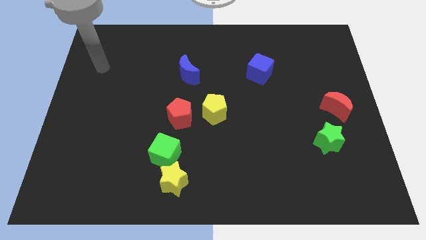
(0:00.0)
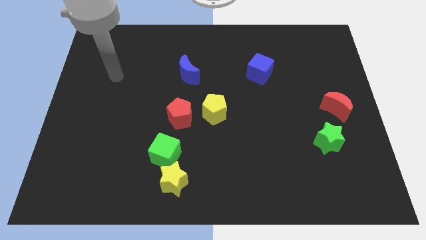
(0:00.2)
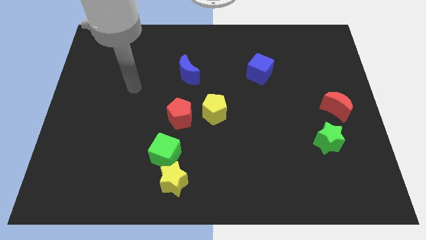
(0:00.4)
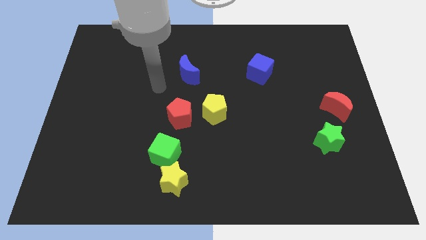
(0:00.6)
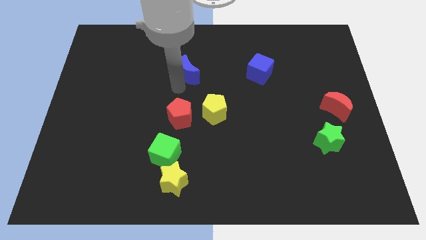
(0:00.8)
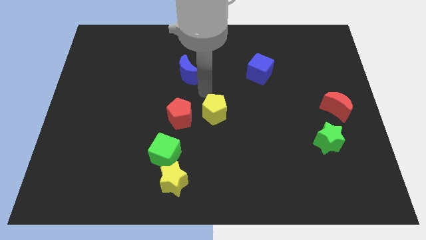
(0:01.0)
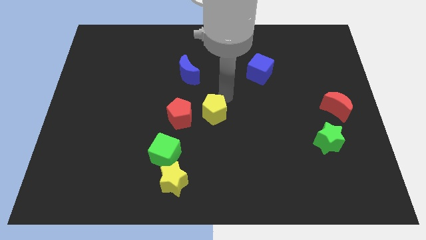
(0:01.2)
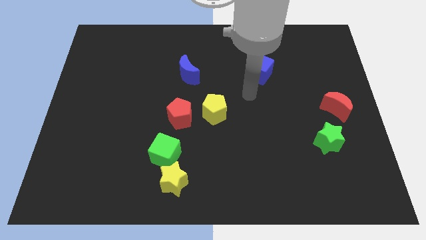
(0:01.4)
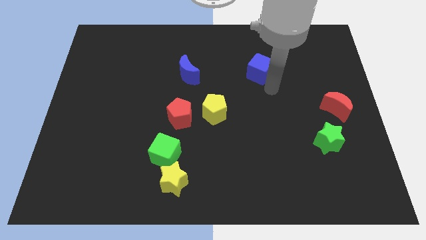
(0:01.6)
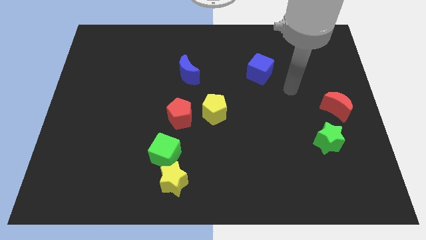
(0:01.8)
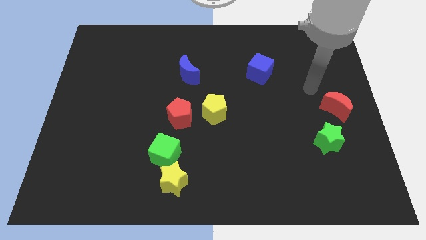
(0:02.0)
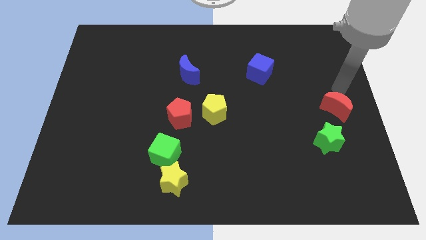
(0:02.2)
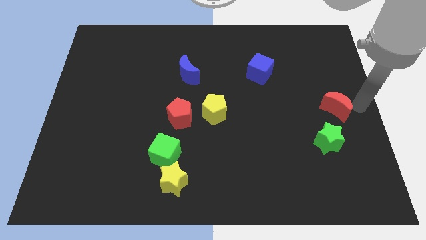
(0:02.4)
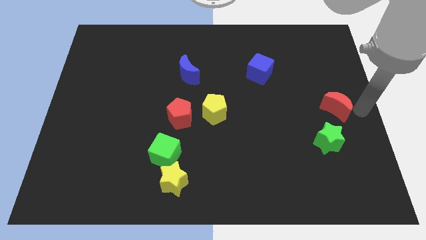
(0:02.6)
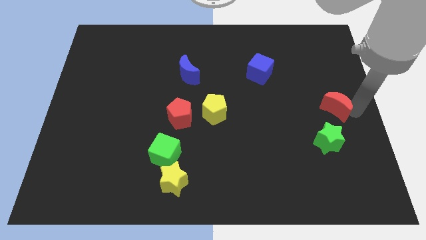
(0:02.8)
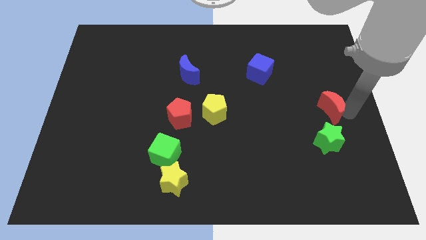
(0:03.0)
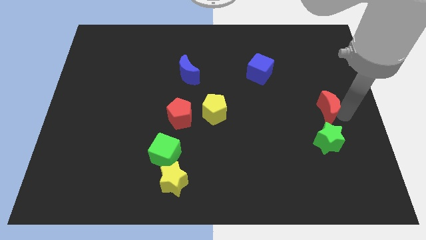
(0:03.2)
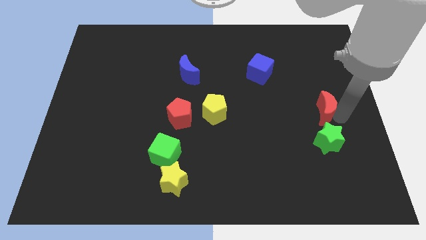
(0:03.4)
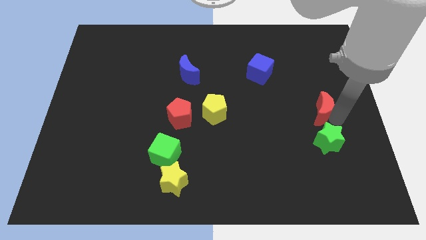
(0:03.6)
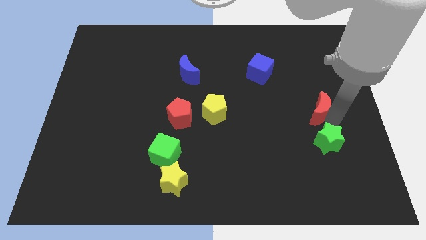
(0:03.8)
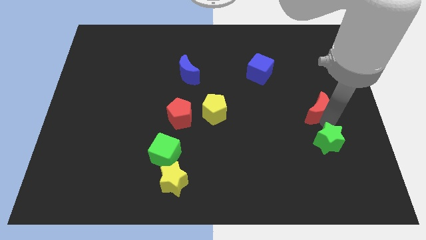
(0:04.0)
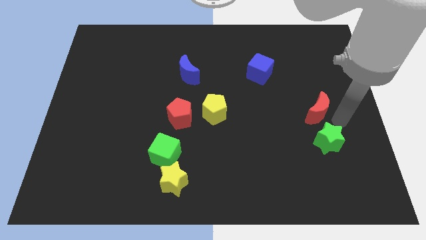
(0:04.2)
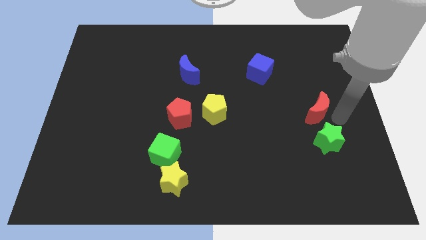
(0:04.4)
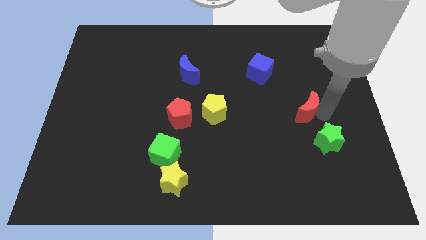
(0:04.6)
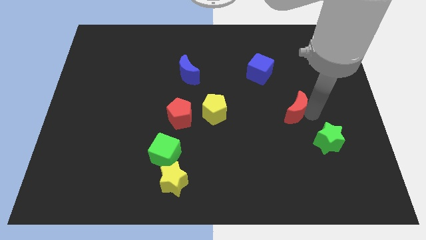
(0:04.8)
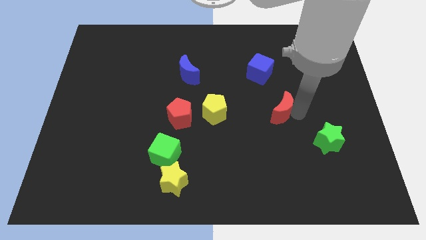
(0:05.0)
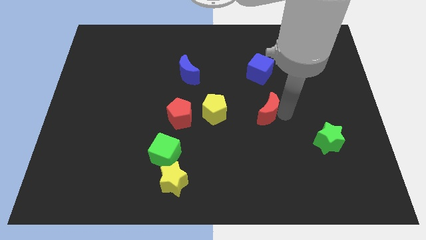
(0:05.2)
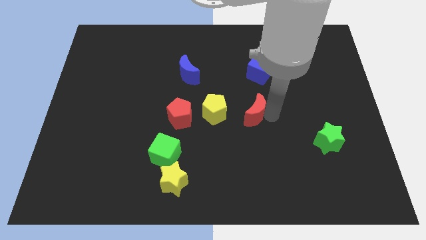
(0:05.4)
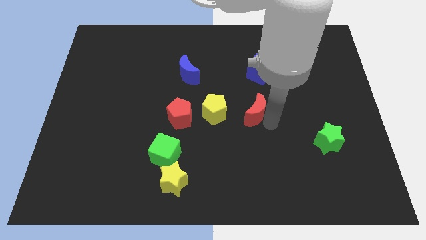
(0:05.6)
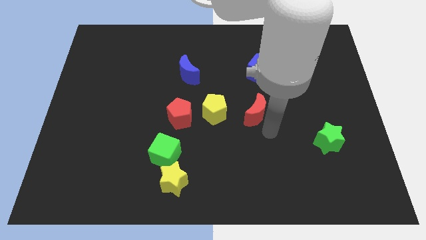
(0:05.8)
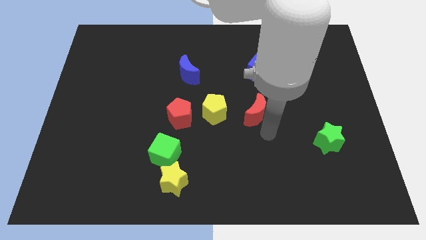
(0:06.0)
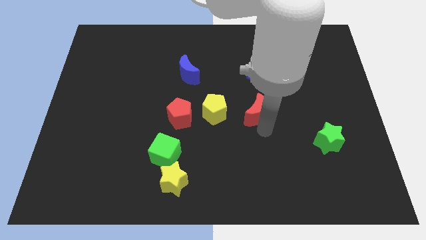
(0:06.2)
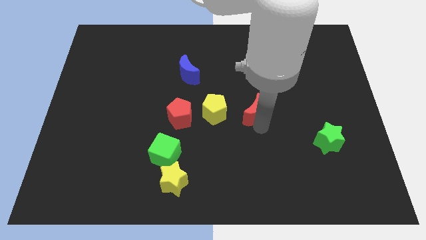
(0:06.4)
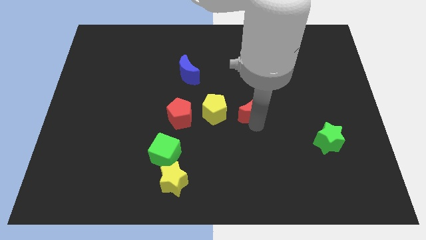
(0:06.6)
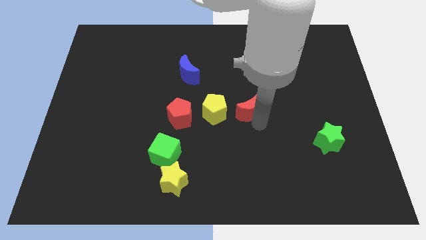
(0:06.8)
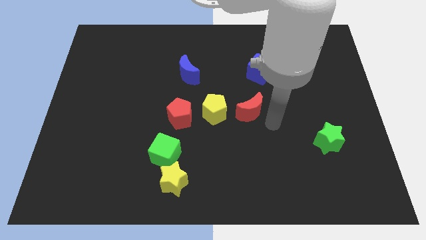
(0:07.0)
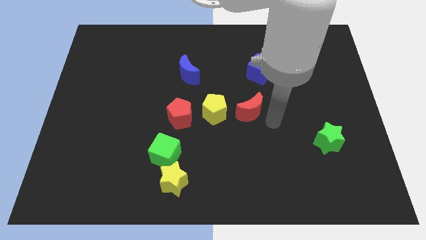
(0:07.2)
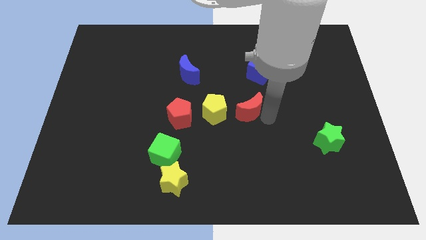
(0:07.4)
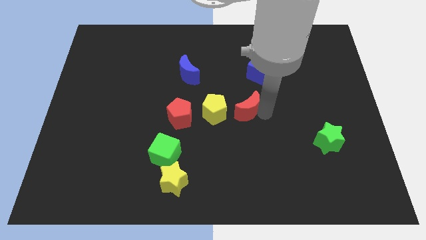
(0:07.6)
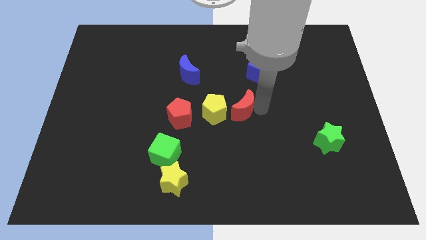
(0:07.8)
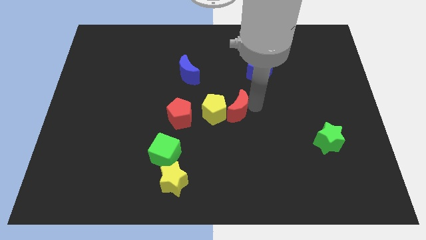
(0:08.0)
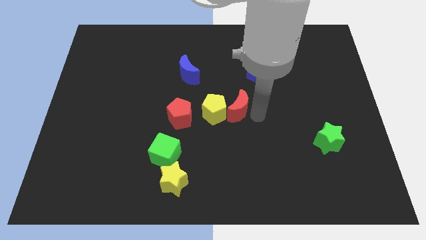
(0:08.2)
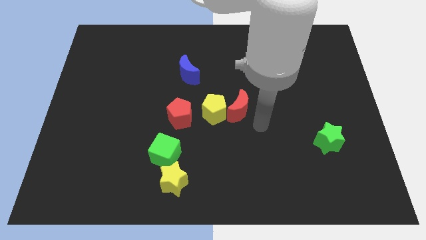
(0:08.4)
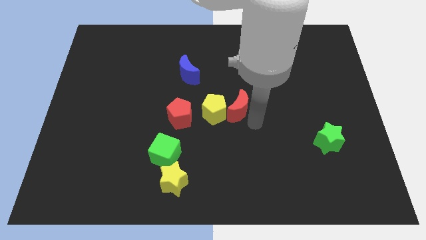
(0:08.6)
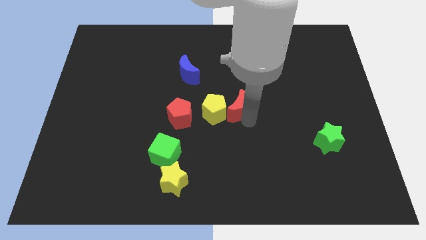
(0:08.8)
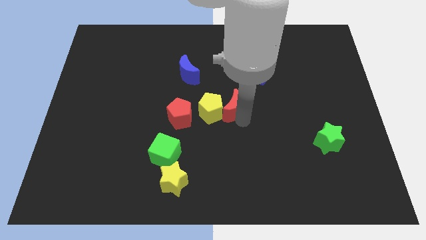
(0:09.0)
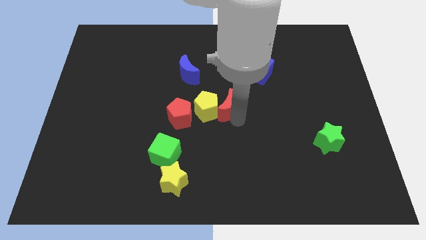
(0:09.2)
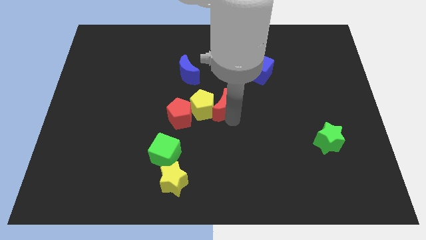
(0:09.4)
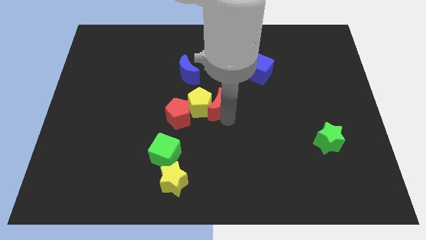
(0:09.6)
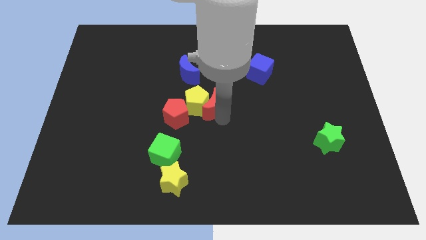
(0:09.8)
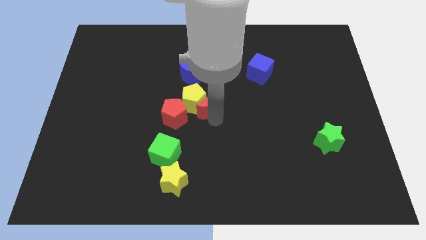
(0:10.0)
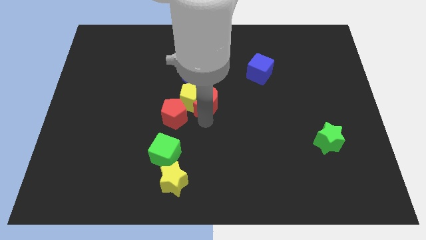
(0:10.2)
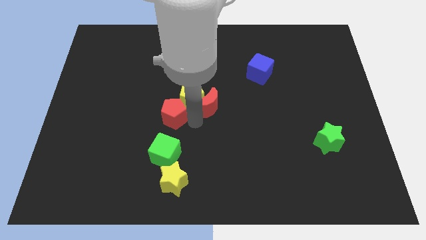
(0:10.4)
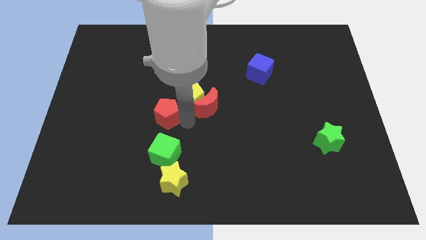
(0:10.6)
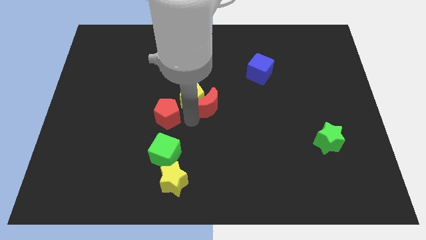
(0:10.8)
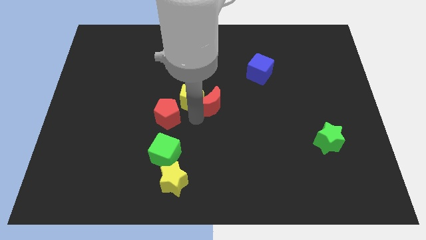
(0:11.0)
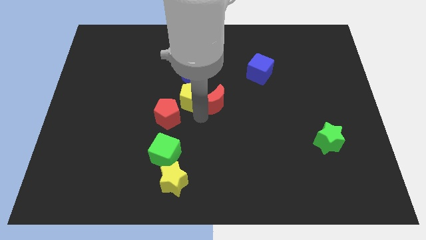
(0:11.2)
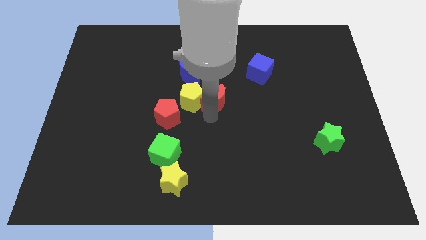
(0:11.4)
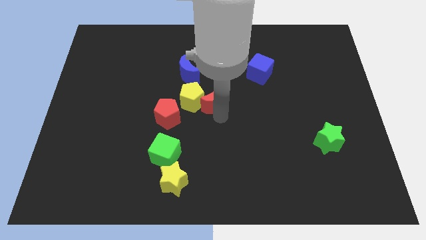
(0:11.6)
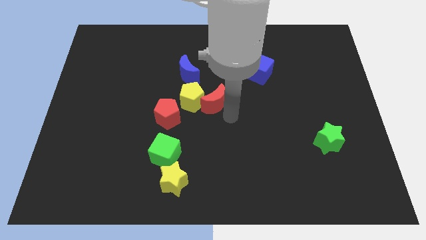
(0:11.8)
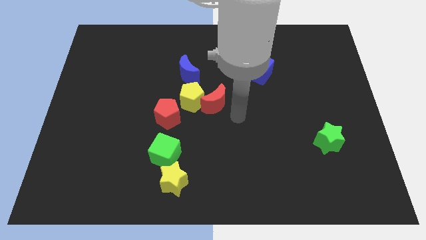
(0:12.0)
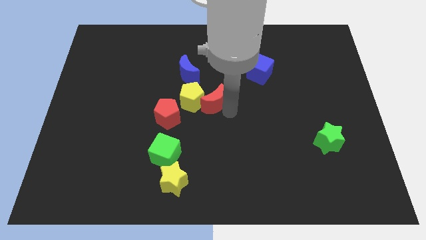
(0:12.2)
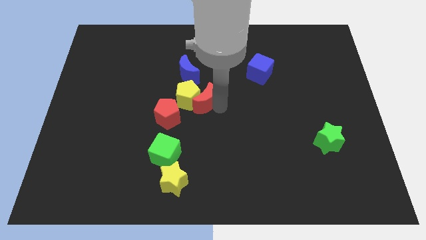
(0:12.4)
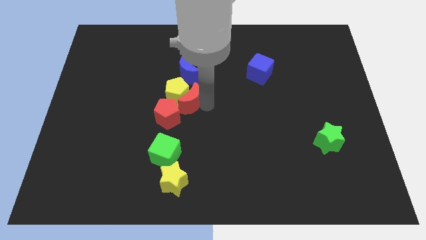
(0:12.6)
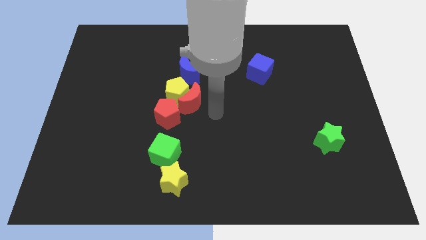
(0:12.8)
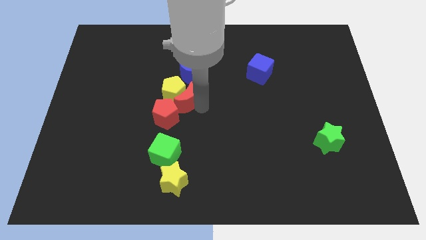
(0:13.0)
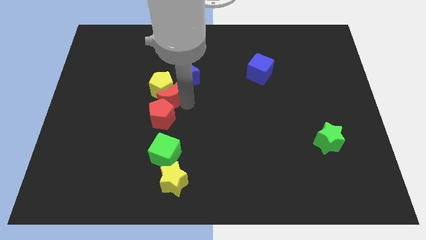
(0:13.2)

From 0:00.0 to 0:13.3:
move the red moon diagonally down and to the left of the blue moon
